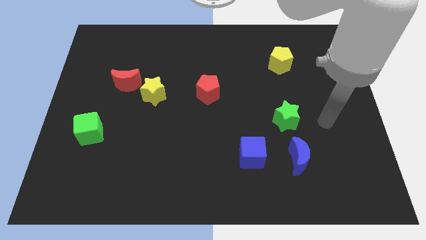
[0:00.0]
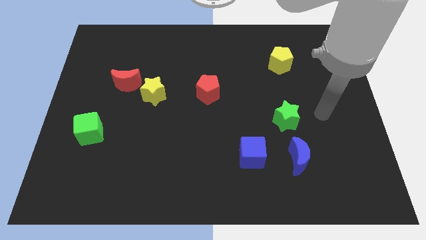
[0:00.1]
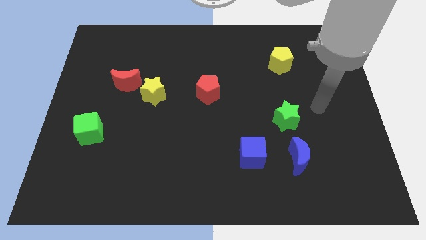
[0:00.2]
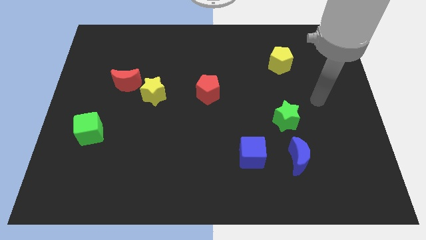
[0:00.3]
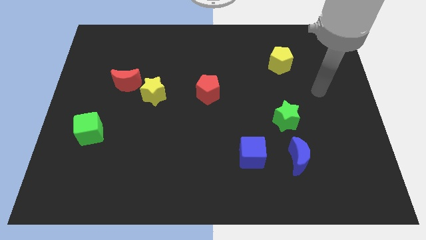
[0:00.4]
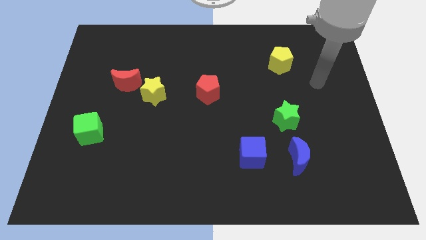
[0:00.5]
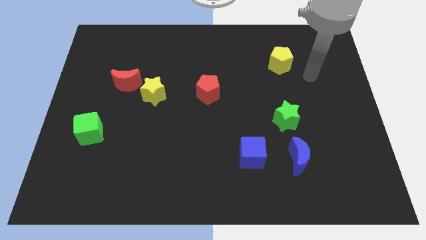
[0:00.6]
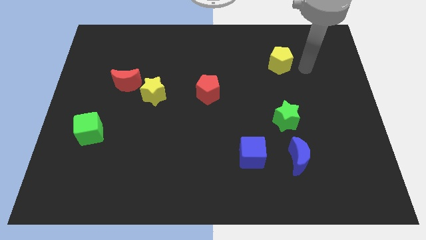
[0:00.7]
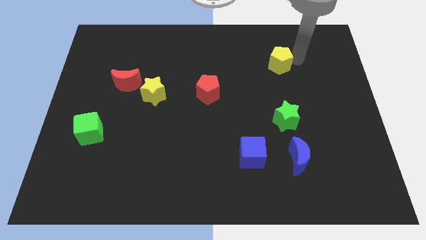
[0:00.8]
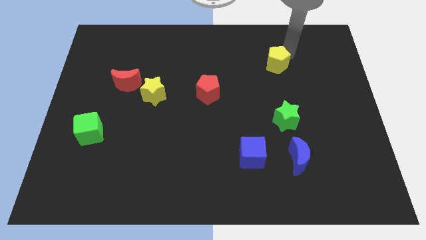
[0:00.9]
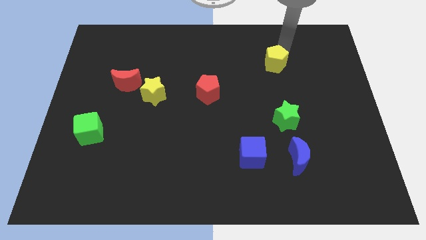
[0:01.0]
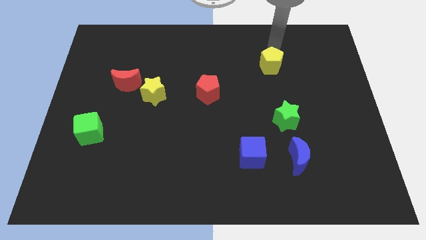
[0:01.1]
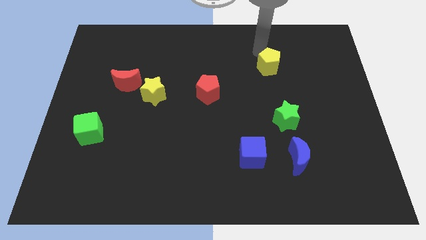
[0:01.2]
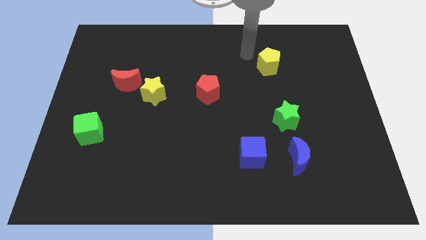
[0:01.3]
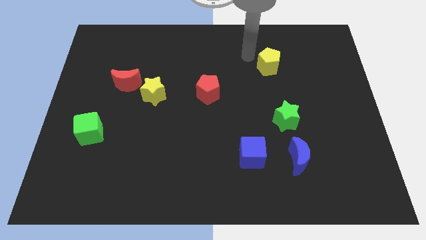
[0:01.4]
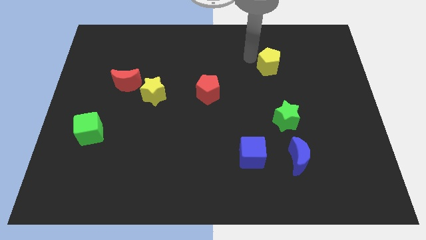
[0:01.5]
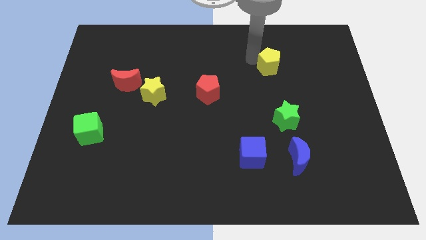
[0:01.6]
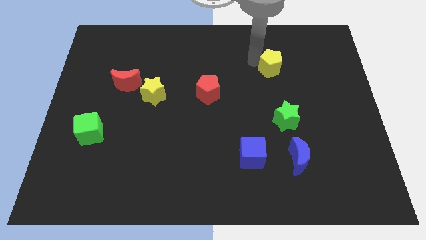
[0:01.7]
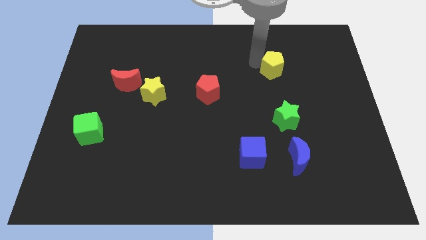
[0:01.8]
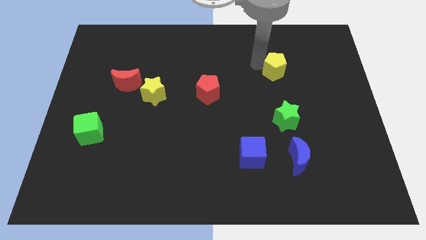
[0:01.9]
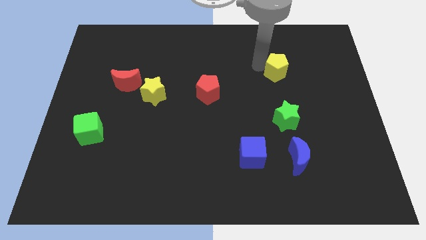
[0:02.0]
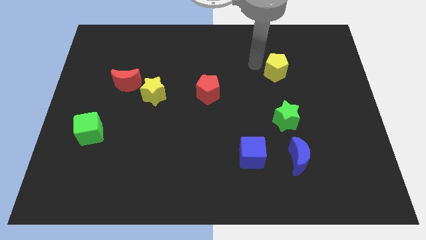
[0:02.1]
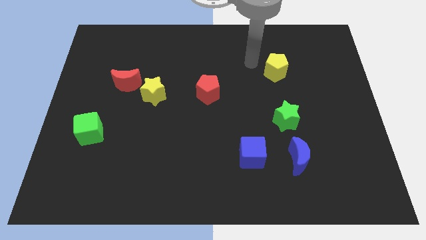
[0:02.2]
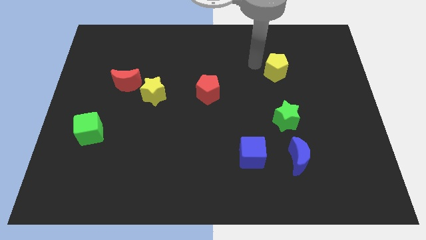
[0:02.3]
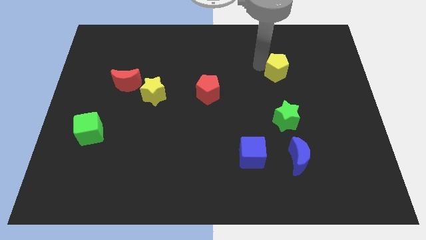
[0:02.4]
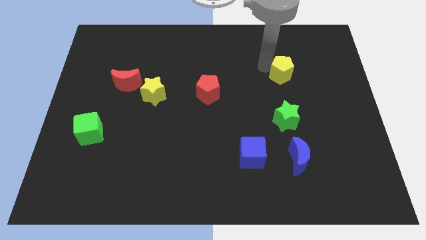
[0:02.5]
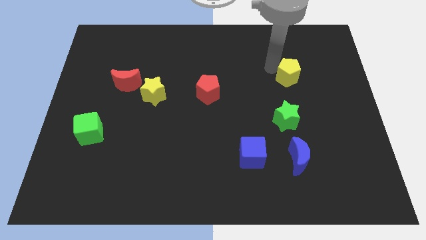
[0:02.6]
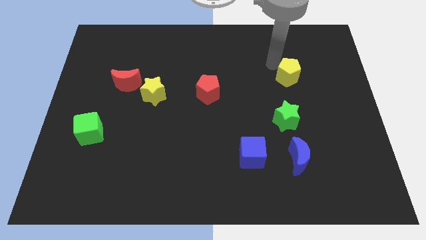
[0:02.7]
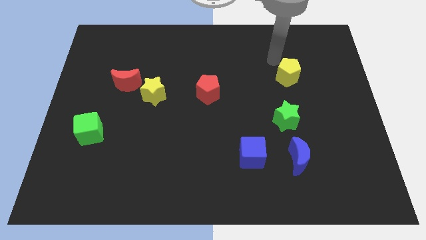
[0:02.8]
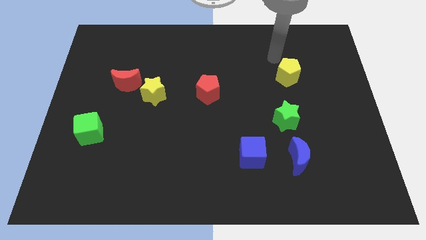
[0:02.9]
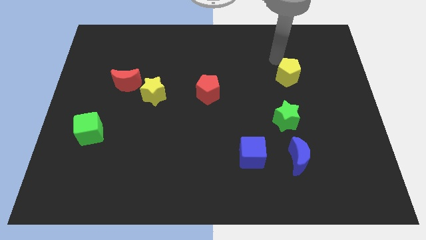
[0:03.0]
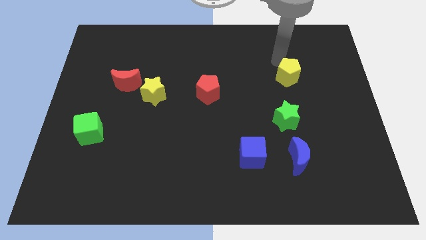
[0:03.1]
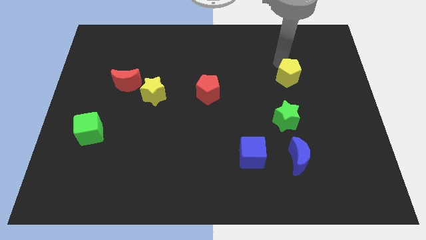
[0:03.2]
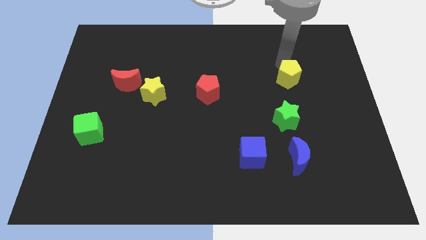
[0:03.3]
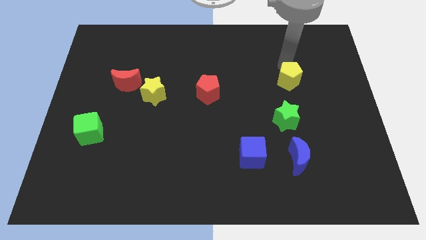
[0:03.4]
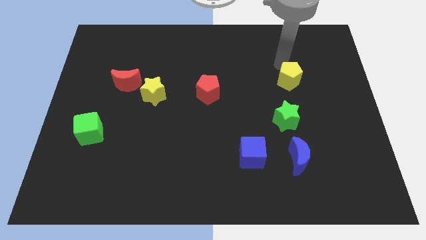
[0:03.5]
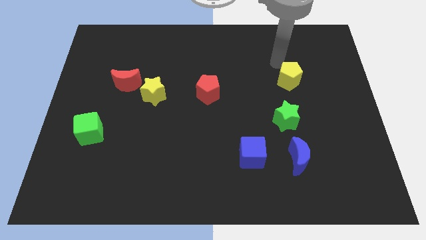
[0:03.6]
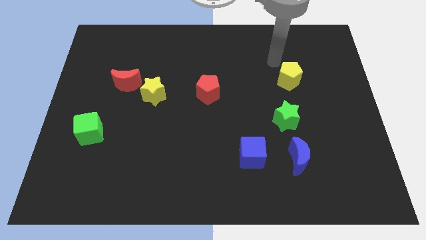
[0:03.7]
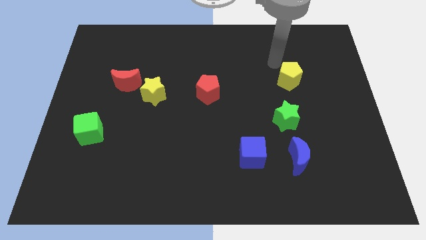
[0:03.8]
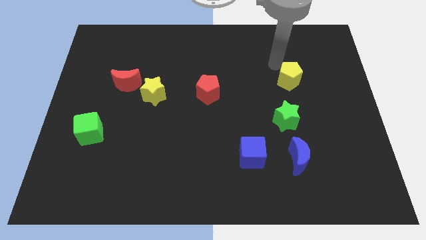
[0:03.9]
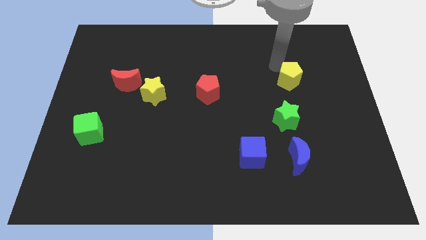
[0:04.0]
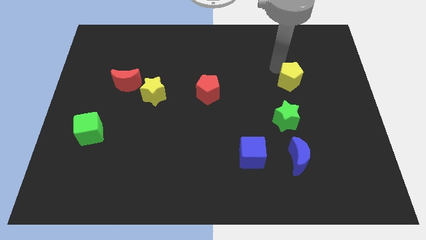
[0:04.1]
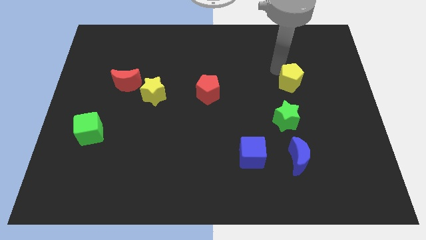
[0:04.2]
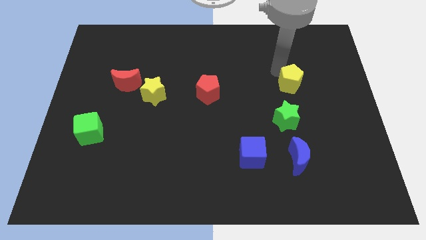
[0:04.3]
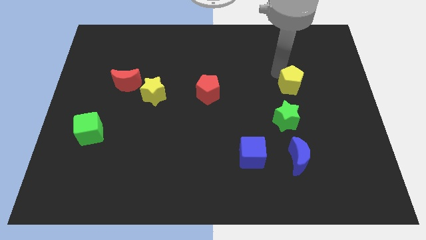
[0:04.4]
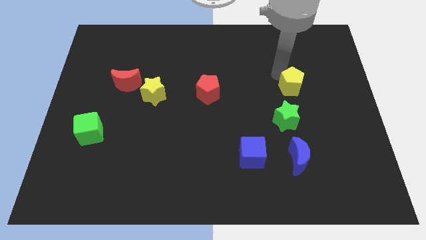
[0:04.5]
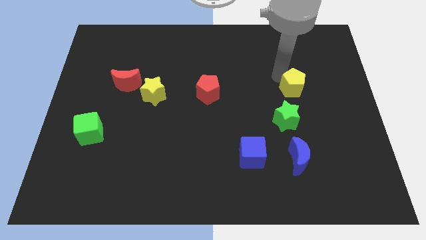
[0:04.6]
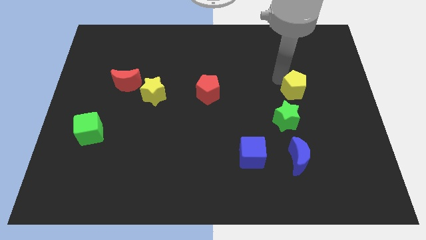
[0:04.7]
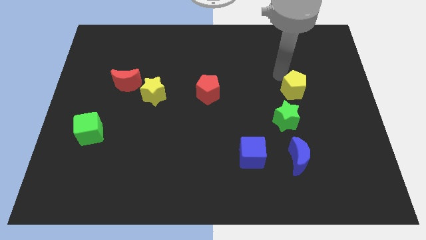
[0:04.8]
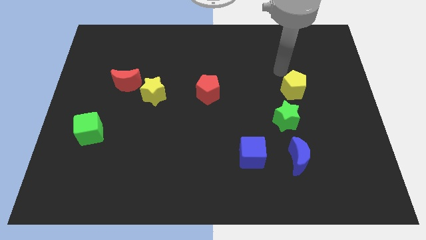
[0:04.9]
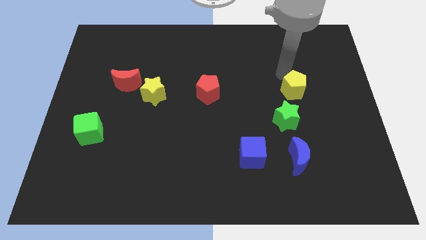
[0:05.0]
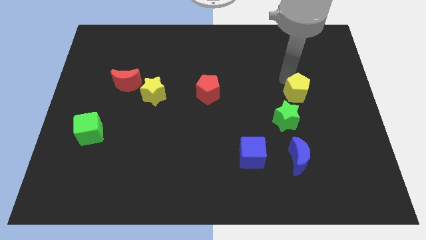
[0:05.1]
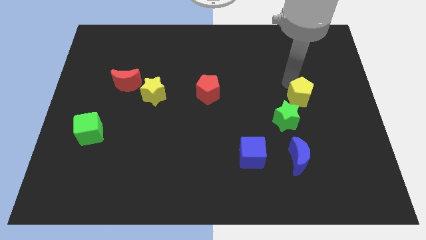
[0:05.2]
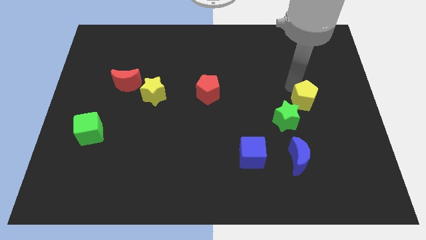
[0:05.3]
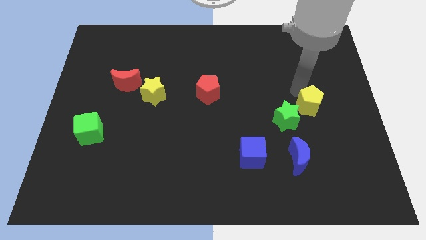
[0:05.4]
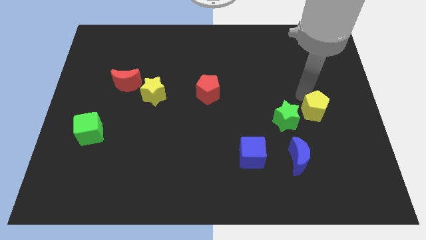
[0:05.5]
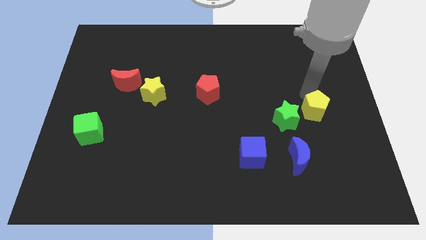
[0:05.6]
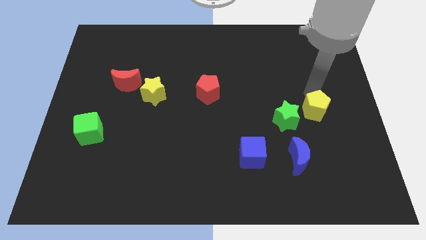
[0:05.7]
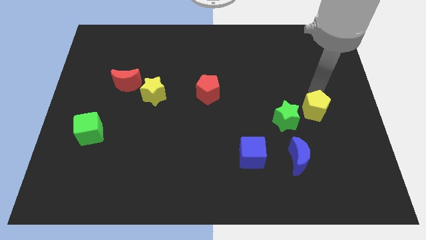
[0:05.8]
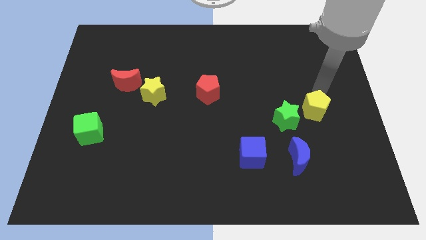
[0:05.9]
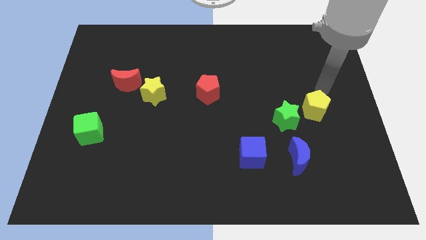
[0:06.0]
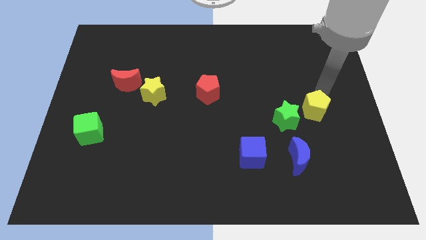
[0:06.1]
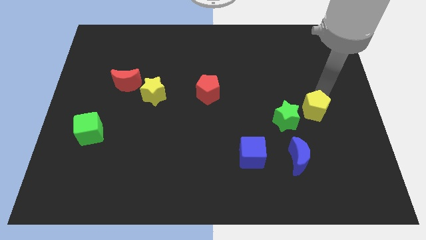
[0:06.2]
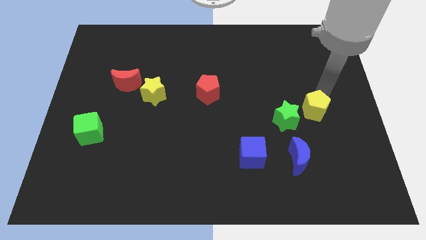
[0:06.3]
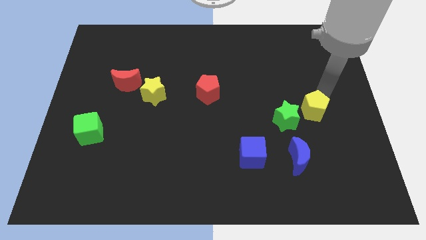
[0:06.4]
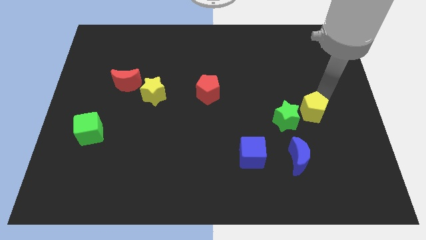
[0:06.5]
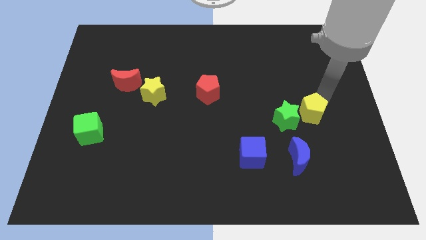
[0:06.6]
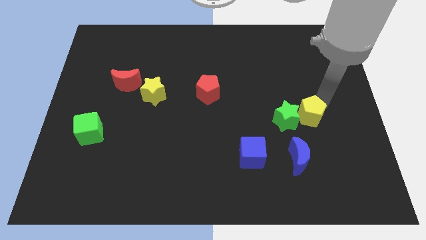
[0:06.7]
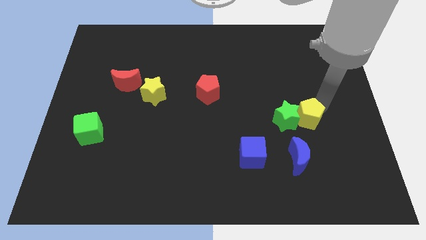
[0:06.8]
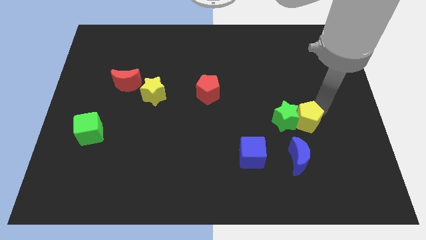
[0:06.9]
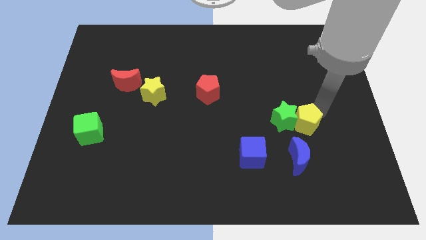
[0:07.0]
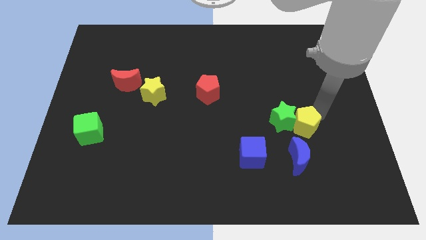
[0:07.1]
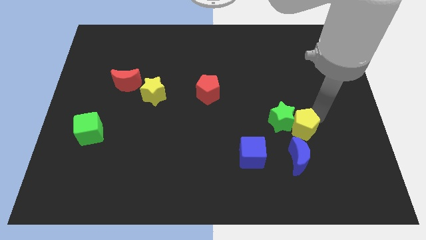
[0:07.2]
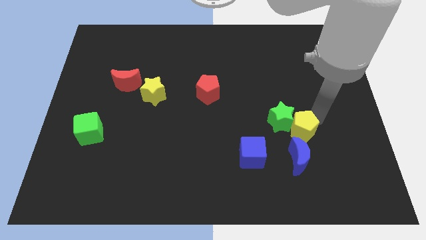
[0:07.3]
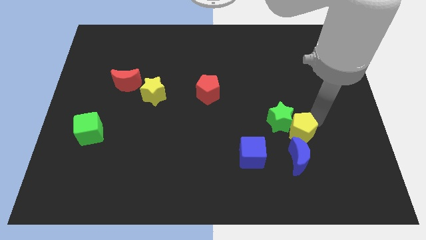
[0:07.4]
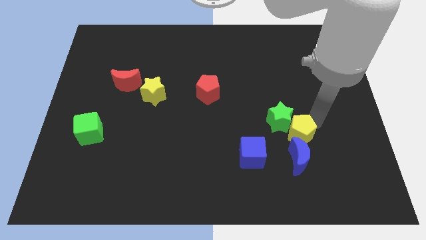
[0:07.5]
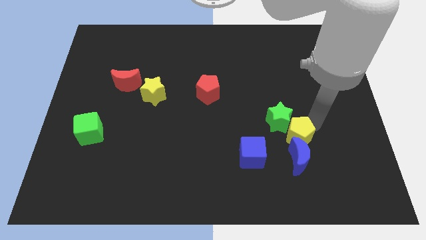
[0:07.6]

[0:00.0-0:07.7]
push the yellow pentagon to the blue moon

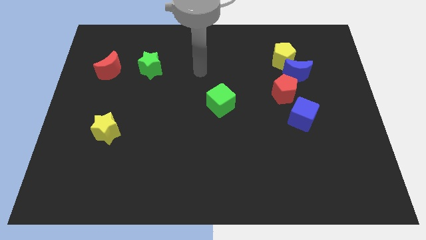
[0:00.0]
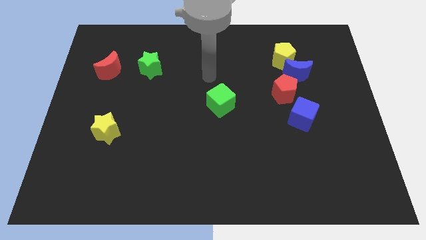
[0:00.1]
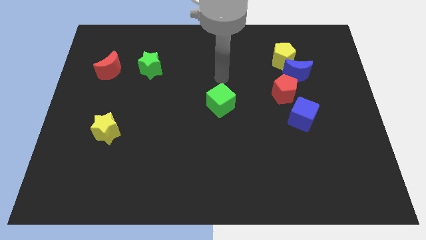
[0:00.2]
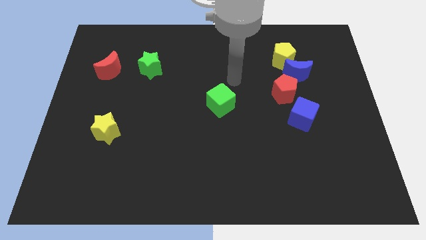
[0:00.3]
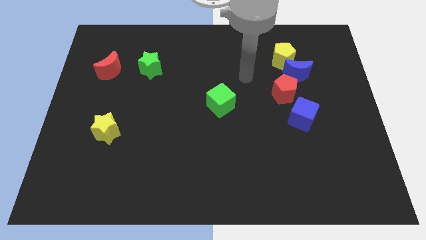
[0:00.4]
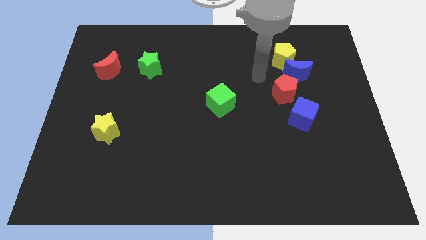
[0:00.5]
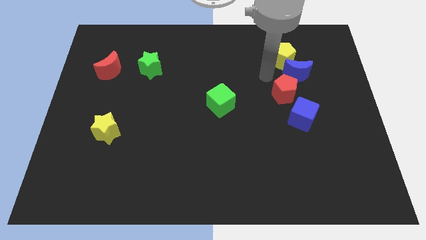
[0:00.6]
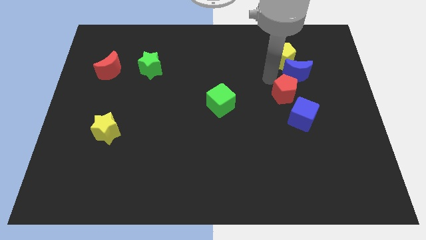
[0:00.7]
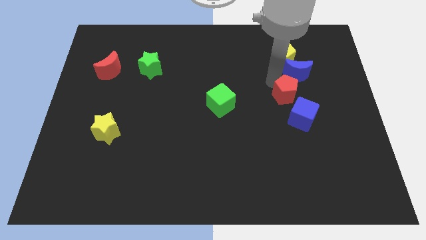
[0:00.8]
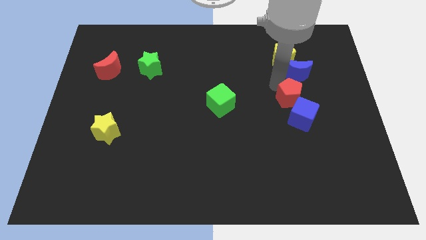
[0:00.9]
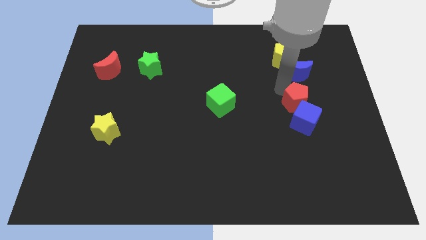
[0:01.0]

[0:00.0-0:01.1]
push the red pentagon towards the blue cube
